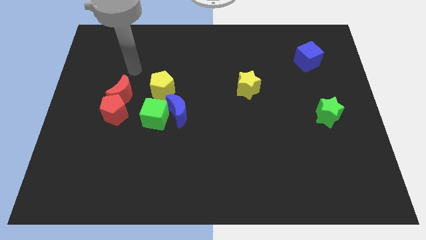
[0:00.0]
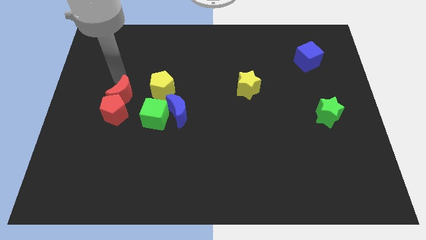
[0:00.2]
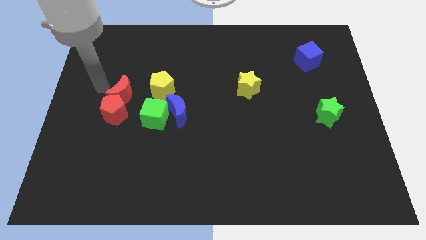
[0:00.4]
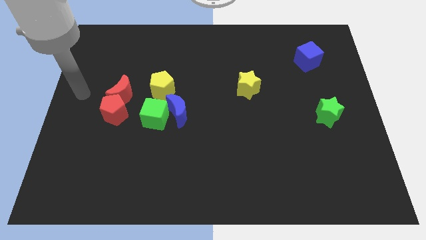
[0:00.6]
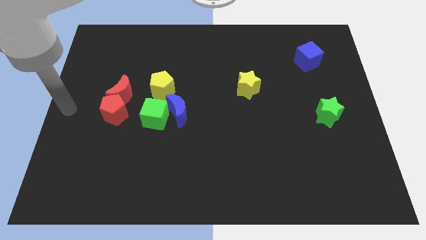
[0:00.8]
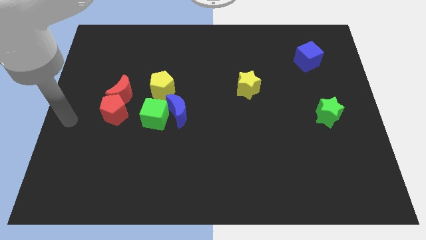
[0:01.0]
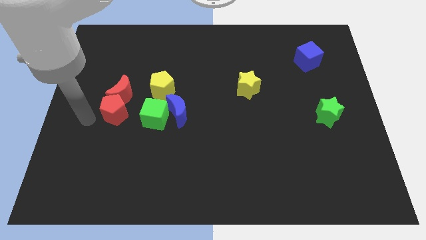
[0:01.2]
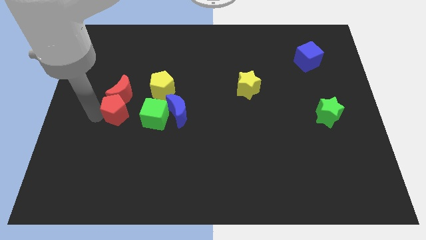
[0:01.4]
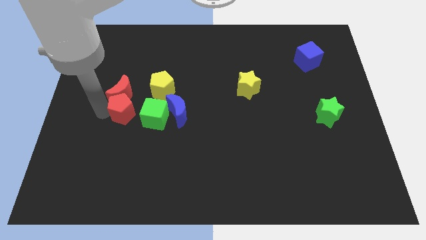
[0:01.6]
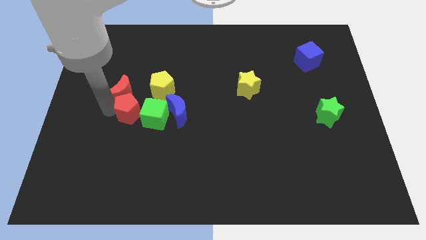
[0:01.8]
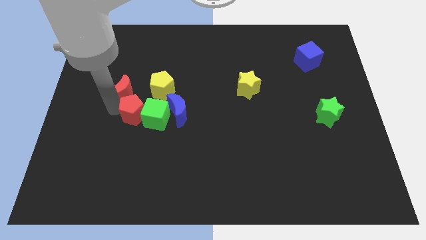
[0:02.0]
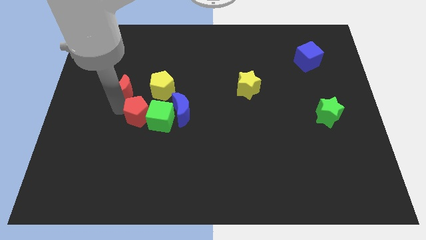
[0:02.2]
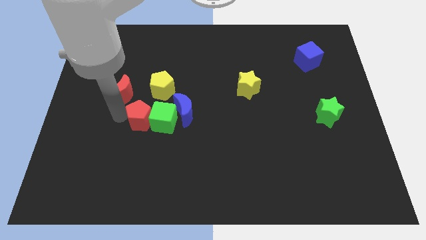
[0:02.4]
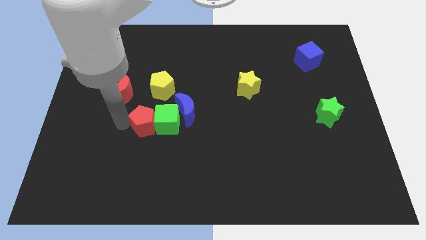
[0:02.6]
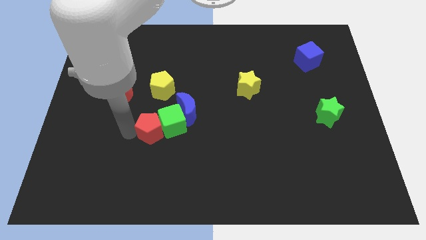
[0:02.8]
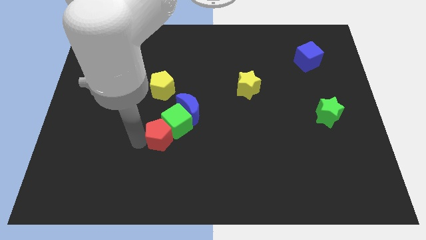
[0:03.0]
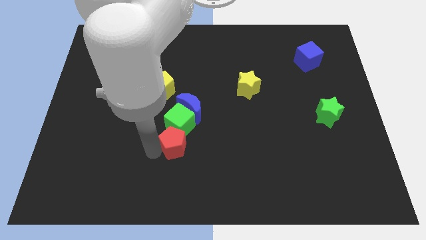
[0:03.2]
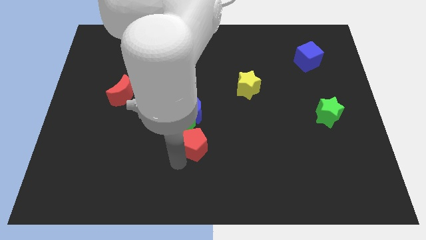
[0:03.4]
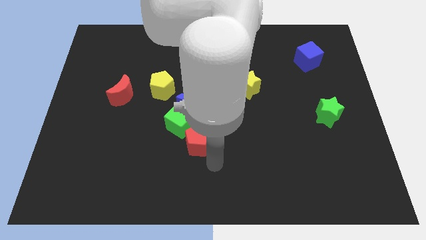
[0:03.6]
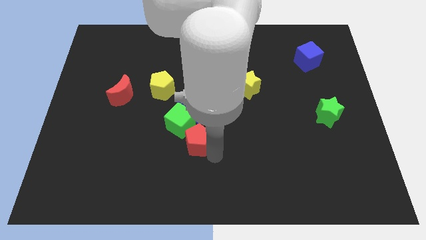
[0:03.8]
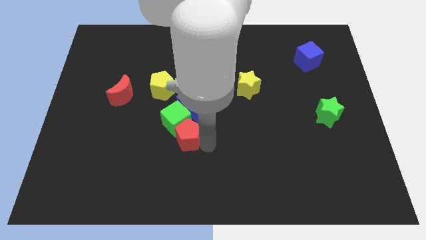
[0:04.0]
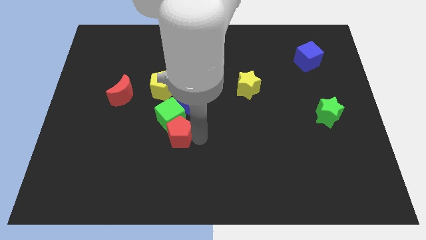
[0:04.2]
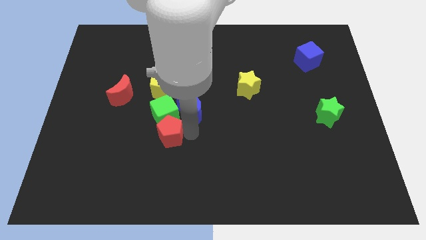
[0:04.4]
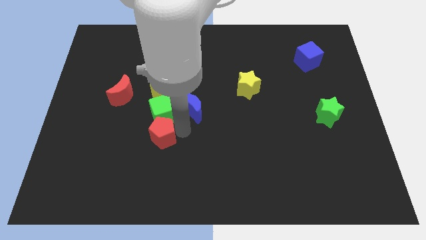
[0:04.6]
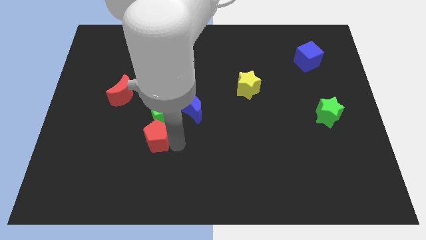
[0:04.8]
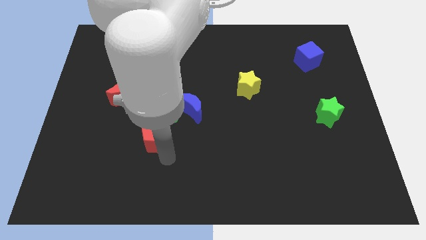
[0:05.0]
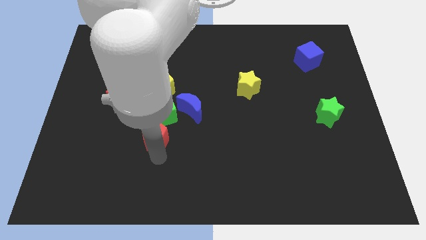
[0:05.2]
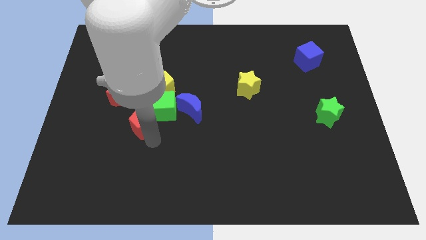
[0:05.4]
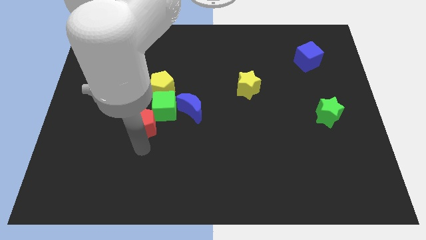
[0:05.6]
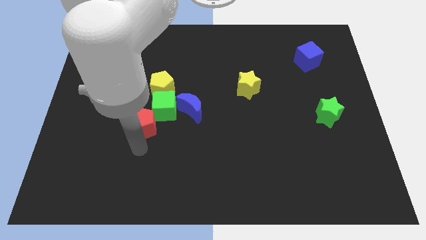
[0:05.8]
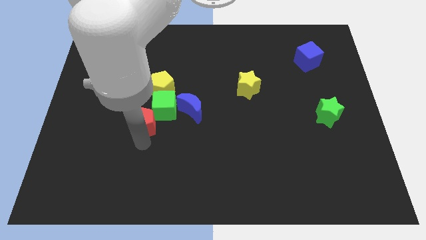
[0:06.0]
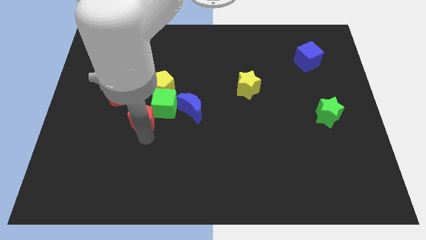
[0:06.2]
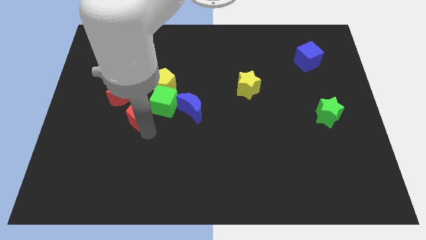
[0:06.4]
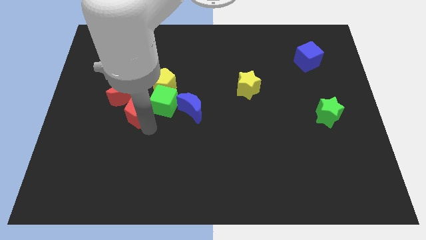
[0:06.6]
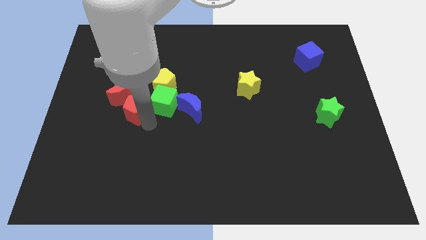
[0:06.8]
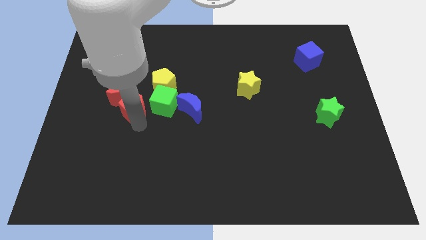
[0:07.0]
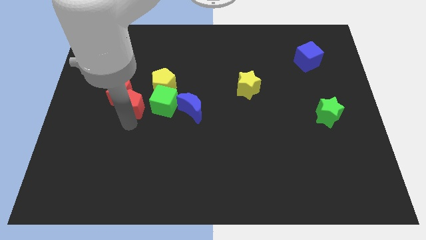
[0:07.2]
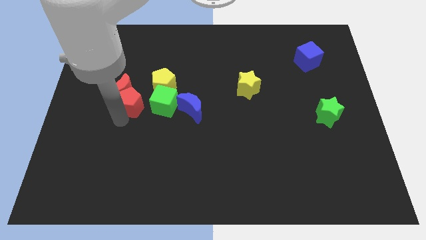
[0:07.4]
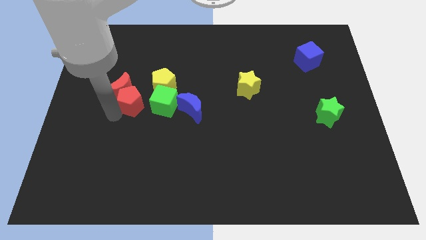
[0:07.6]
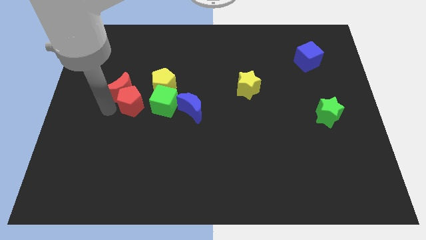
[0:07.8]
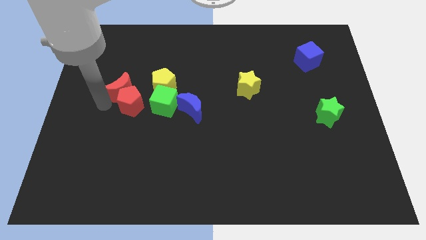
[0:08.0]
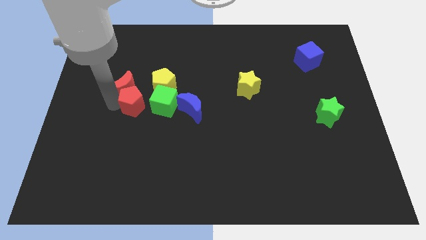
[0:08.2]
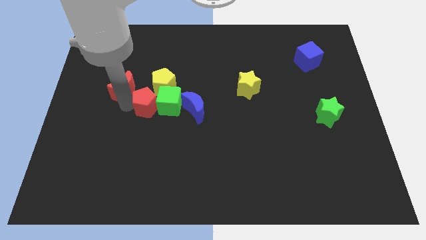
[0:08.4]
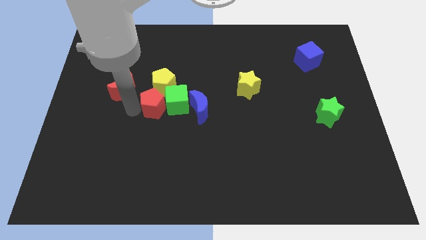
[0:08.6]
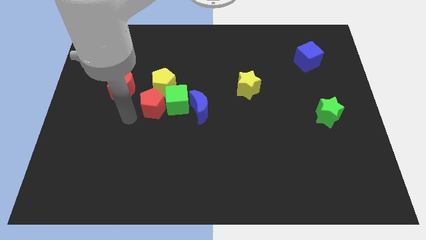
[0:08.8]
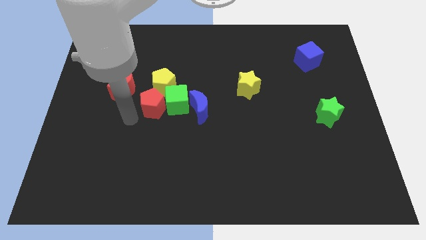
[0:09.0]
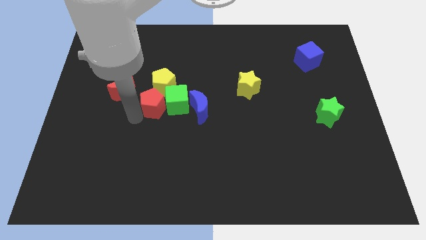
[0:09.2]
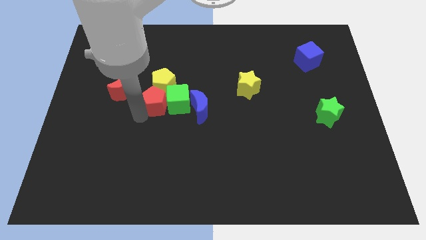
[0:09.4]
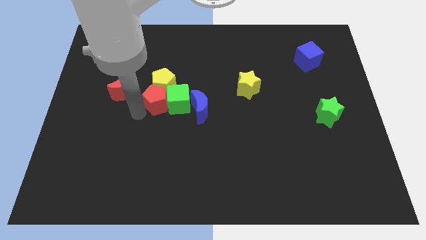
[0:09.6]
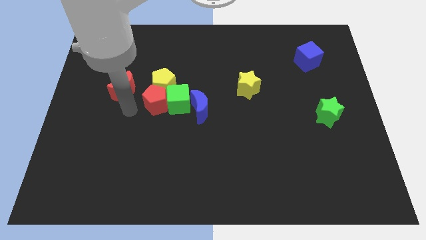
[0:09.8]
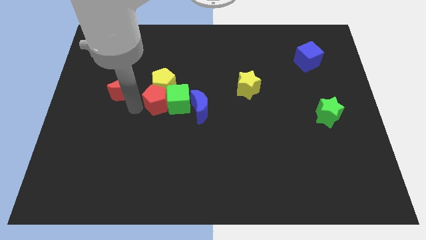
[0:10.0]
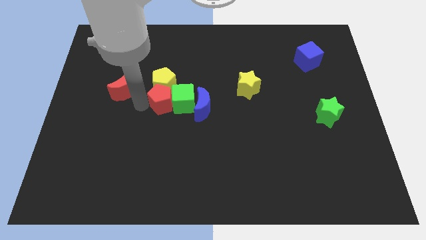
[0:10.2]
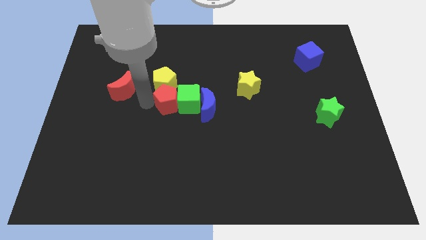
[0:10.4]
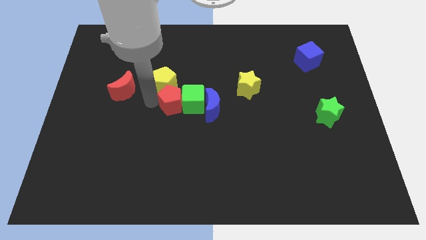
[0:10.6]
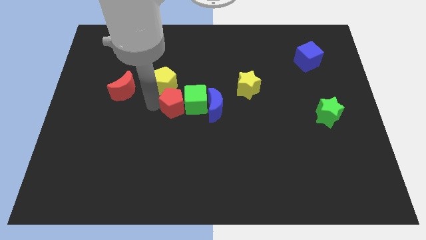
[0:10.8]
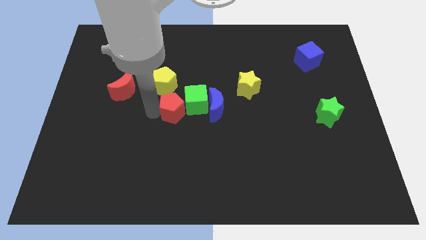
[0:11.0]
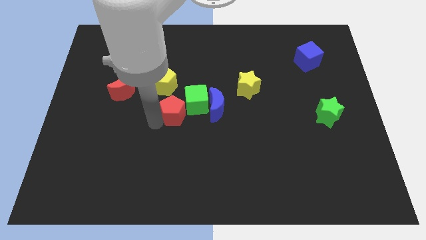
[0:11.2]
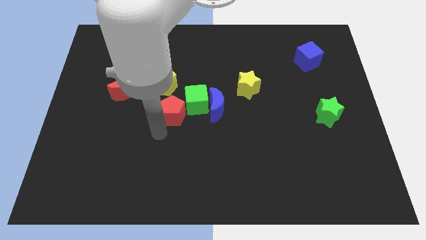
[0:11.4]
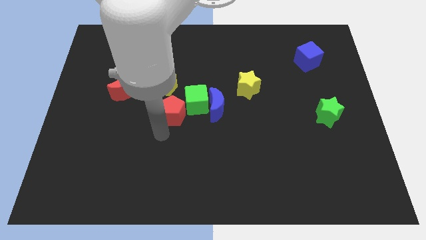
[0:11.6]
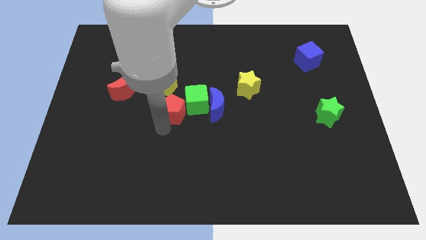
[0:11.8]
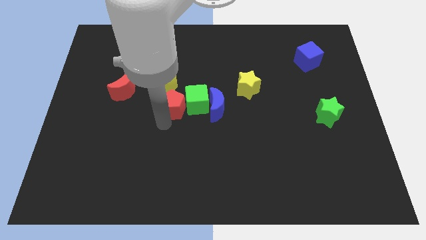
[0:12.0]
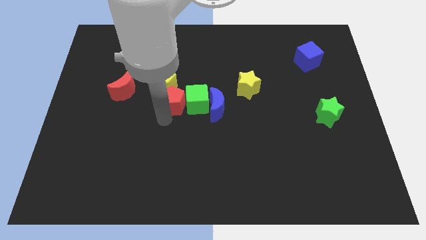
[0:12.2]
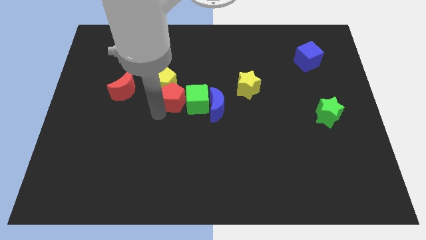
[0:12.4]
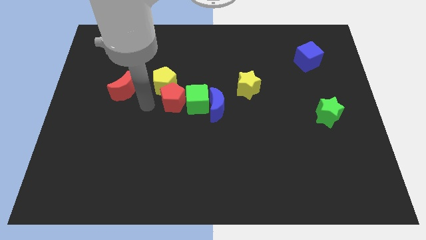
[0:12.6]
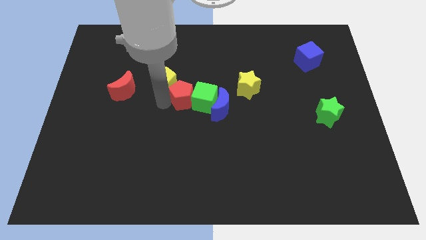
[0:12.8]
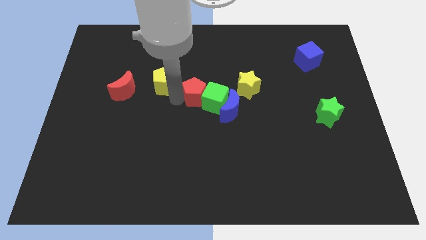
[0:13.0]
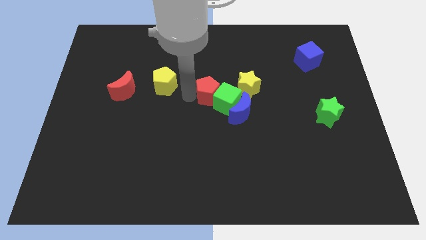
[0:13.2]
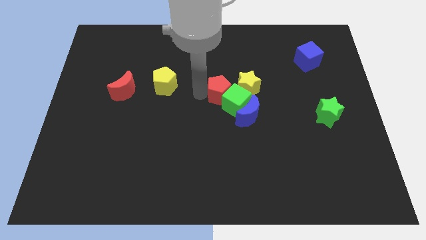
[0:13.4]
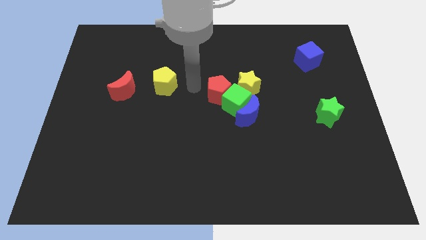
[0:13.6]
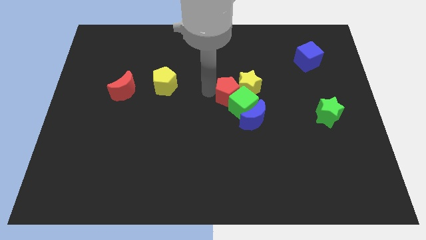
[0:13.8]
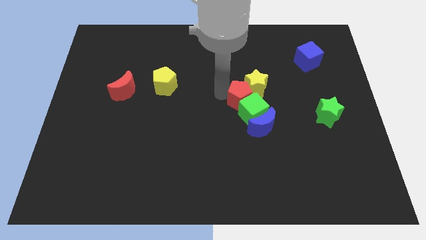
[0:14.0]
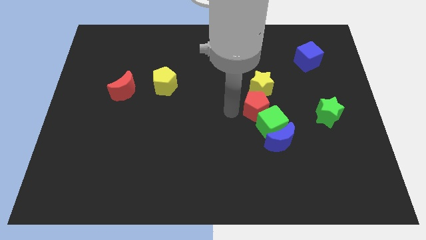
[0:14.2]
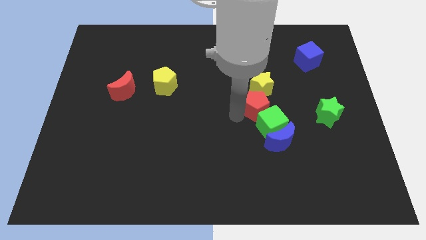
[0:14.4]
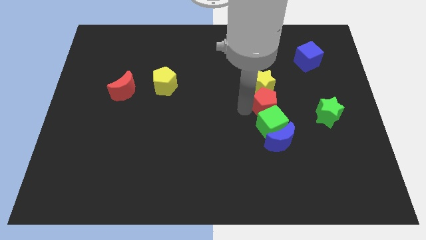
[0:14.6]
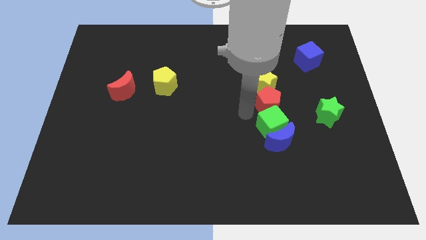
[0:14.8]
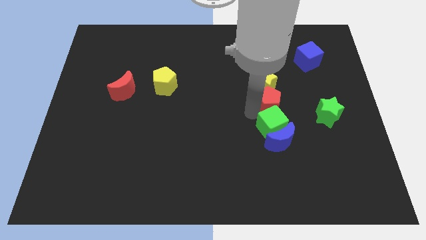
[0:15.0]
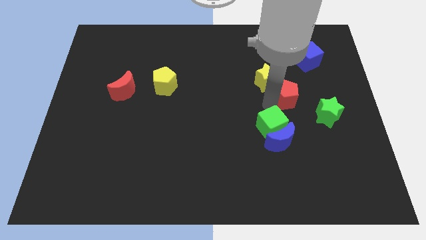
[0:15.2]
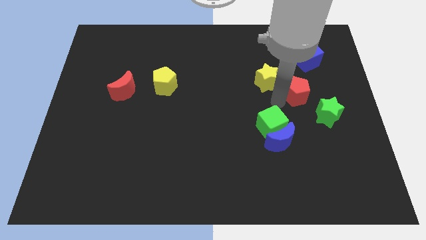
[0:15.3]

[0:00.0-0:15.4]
put the red pentagon just right of the yellow star
